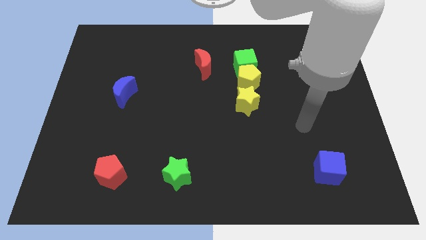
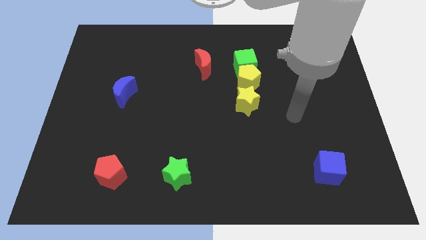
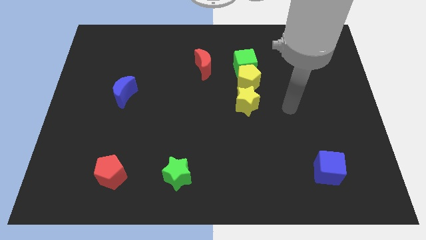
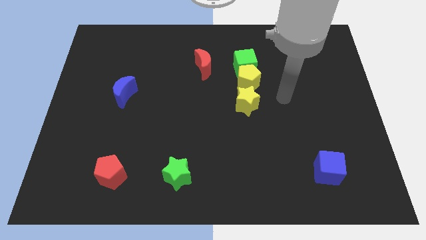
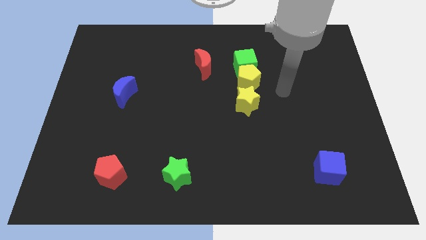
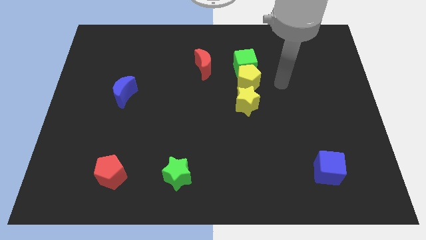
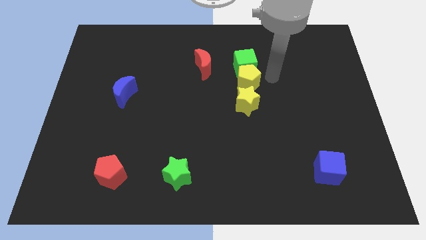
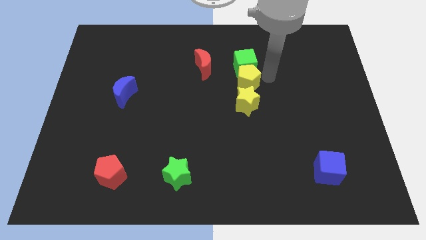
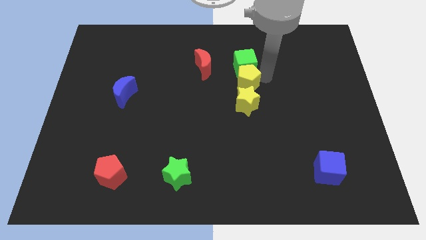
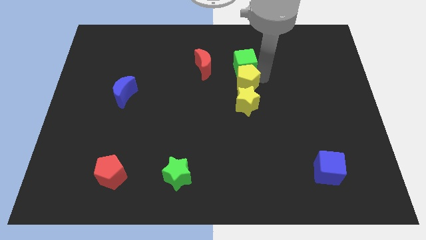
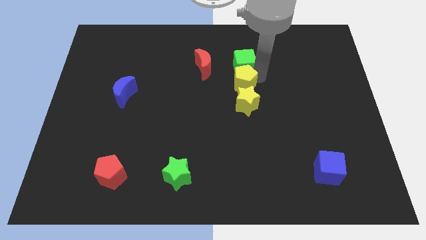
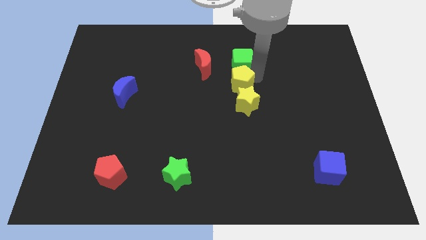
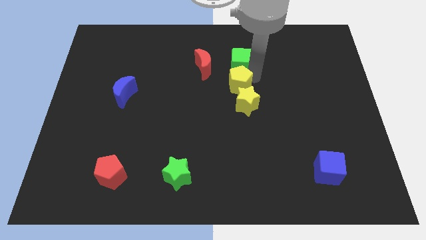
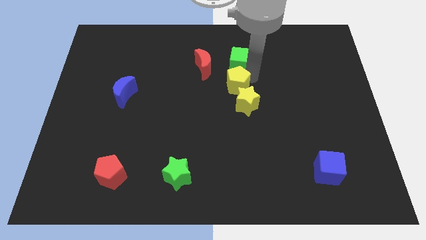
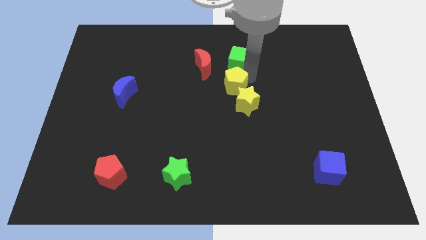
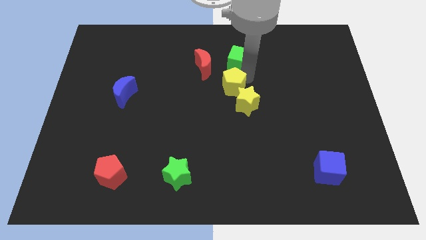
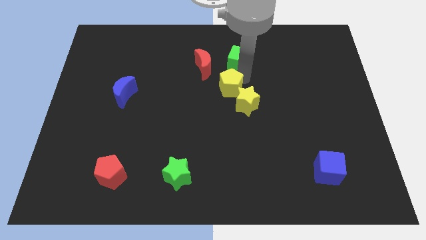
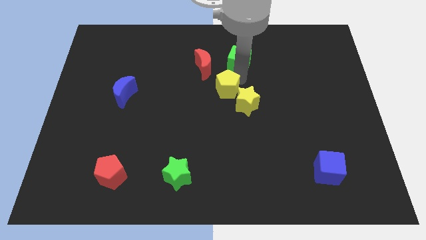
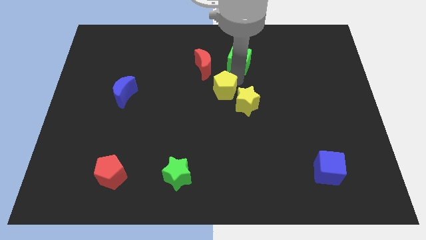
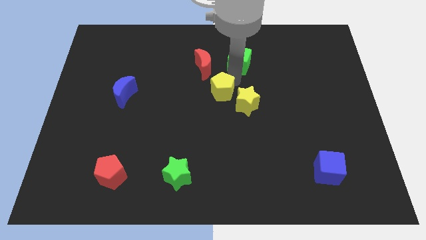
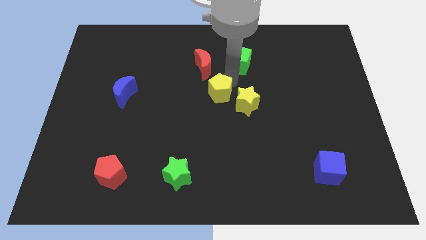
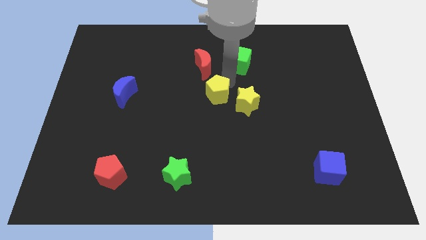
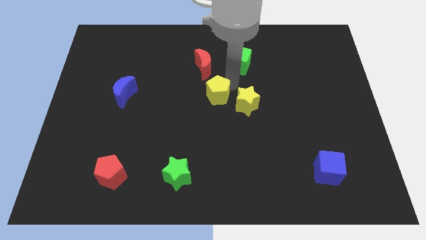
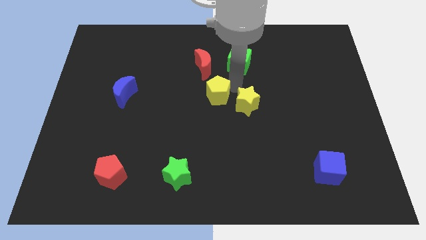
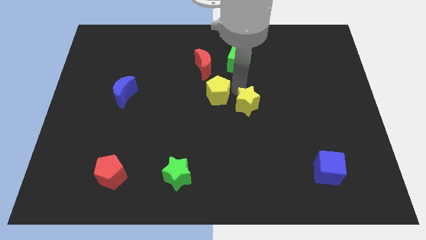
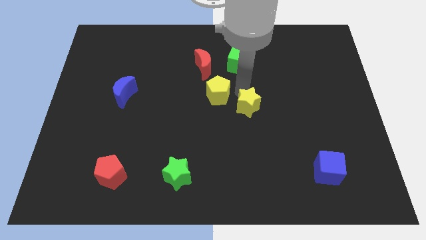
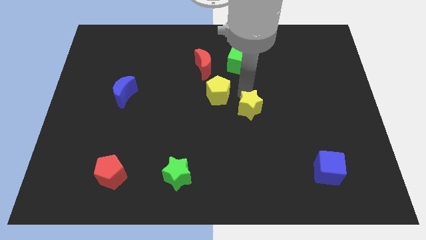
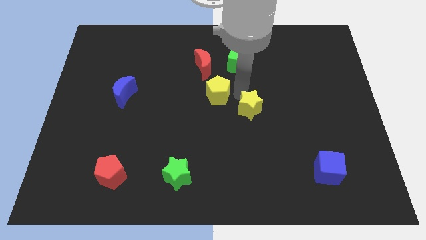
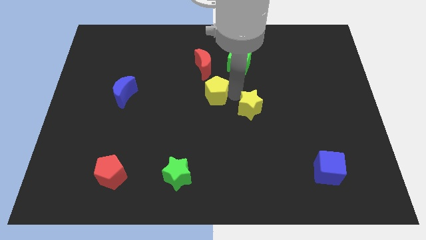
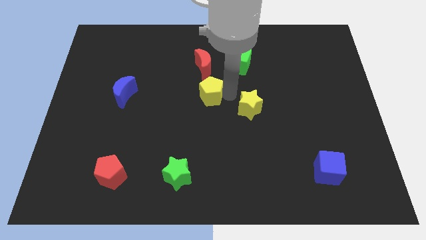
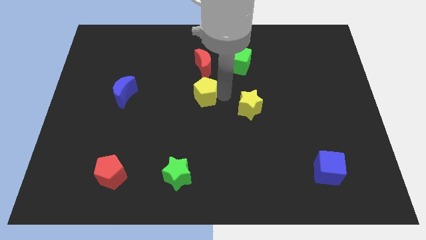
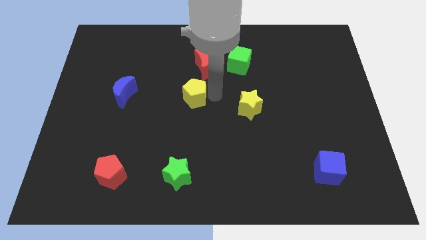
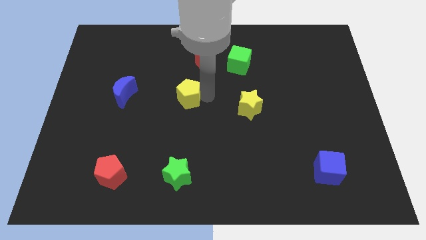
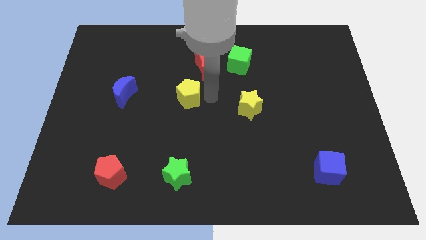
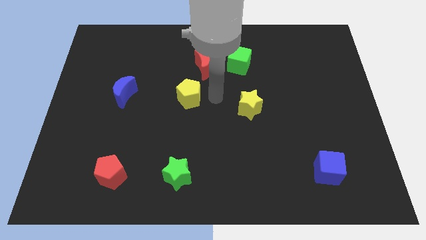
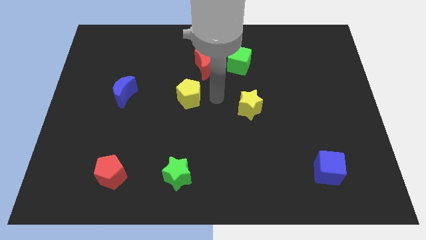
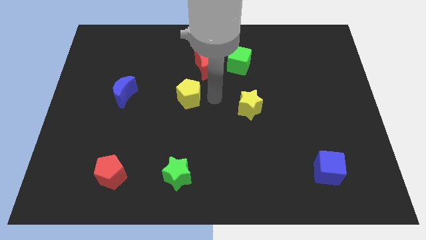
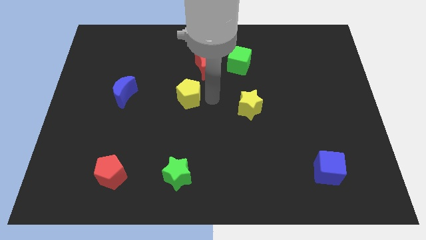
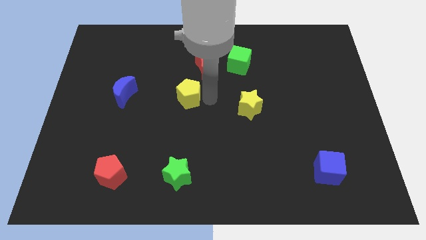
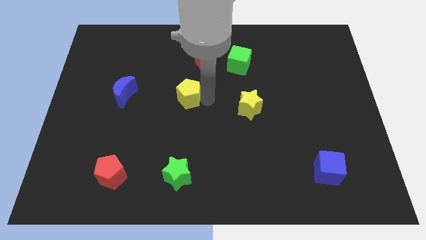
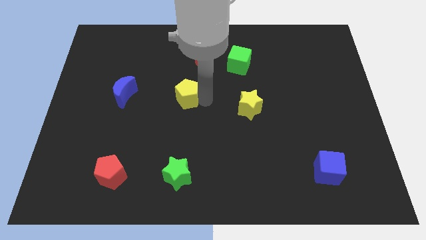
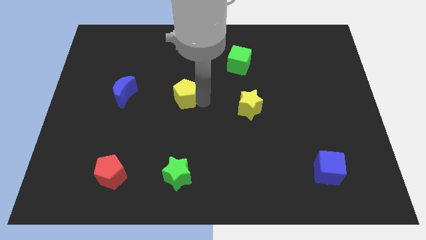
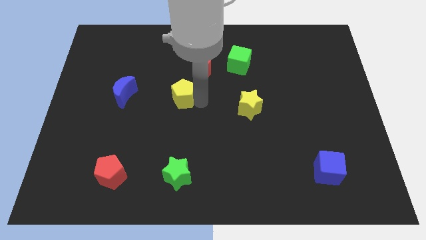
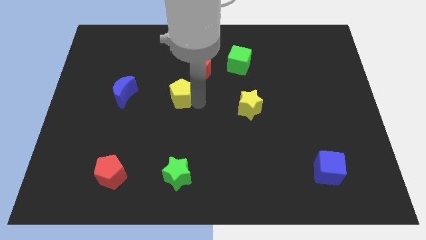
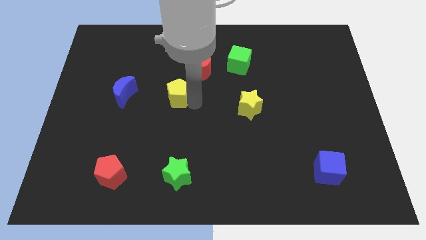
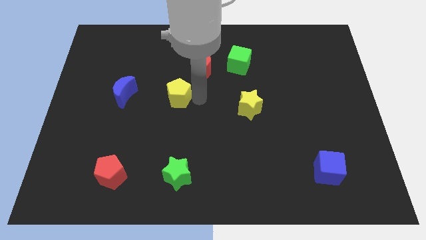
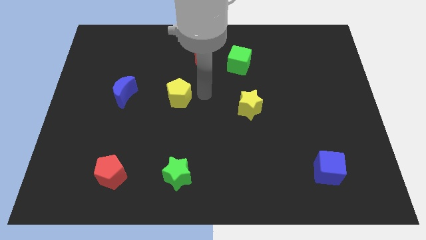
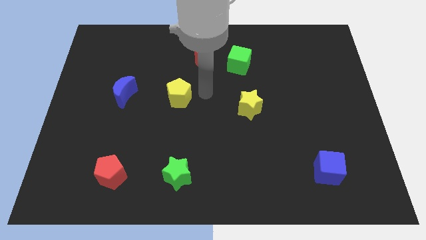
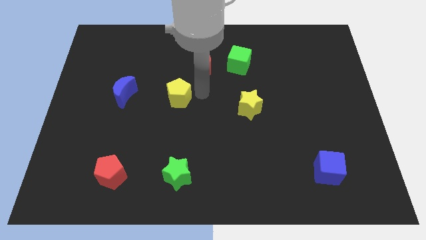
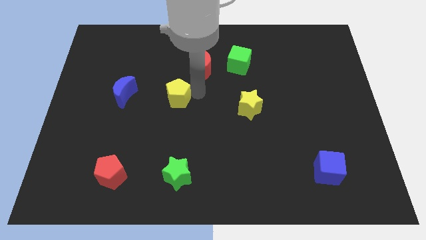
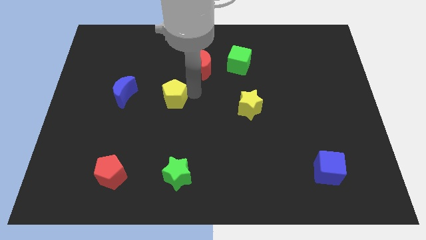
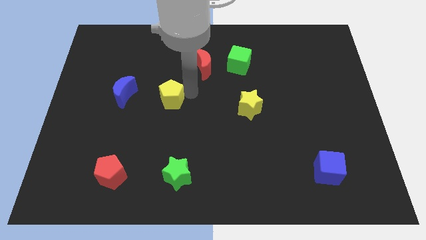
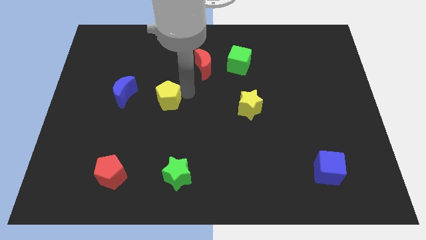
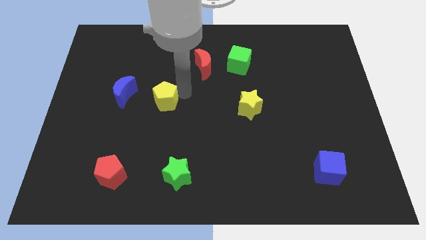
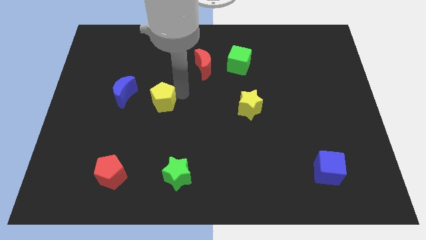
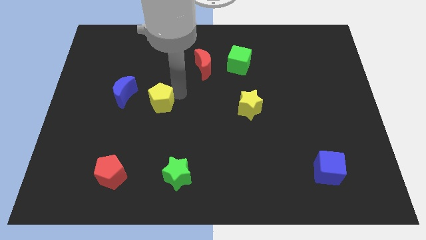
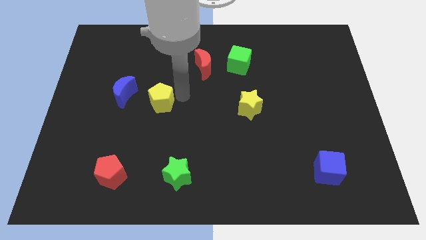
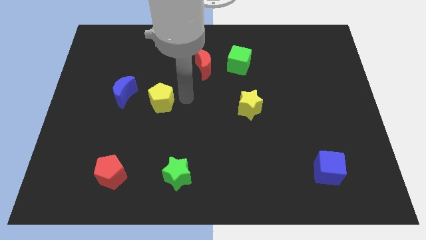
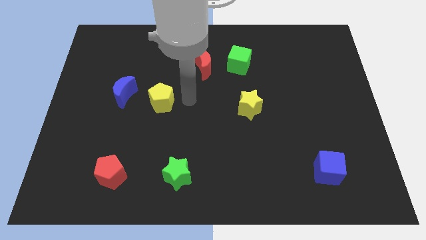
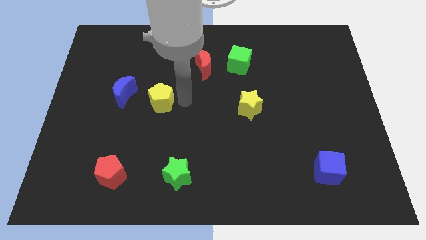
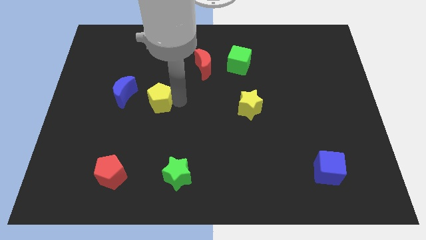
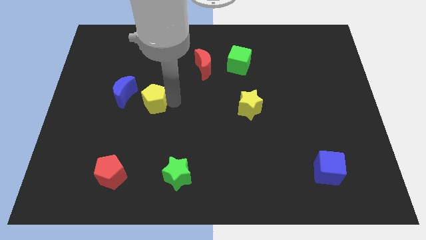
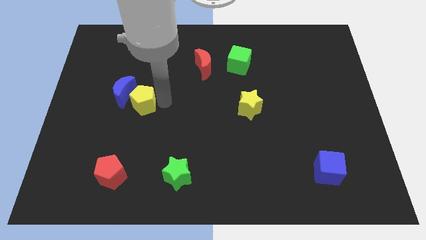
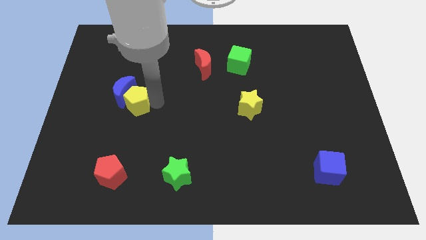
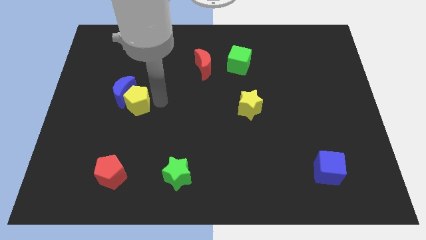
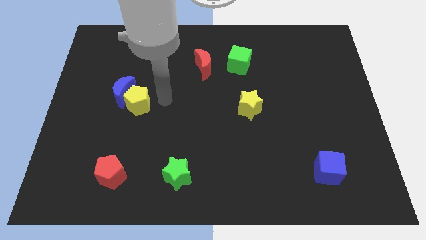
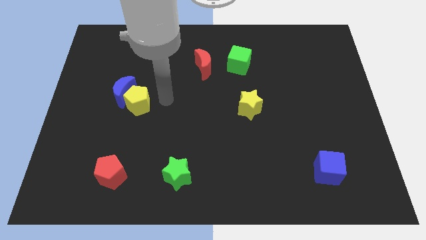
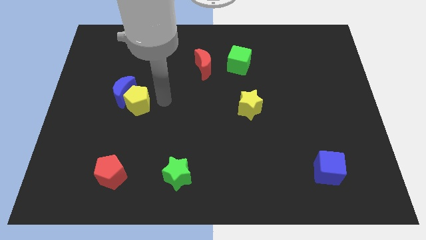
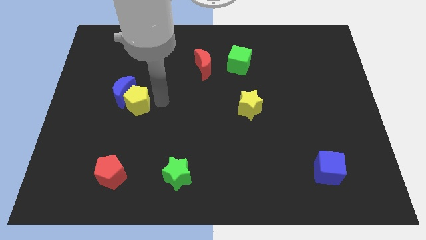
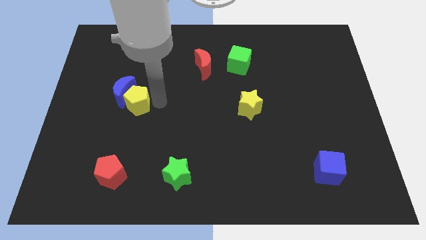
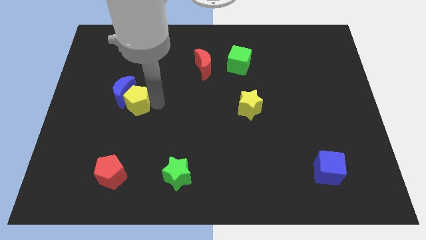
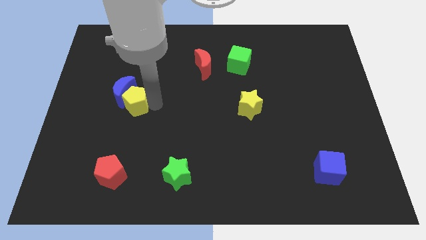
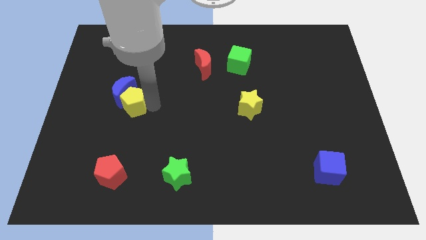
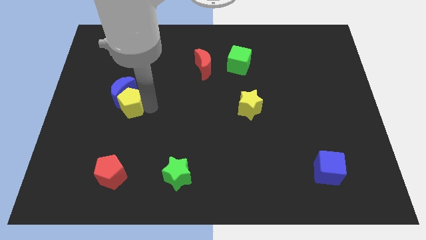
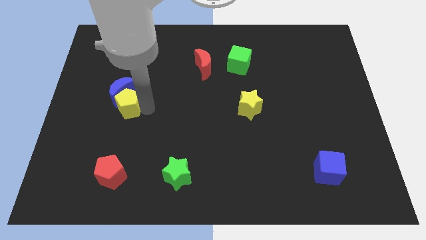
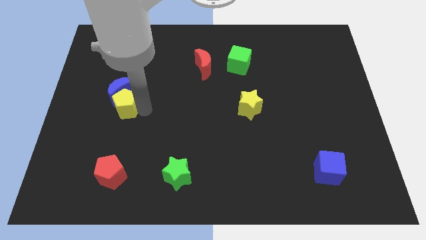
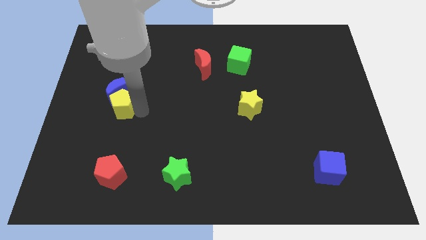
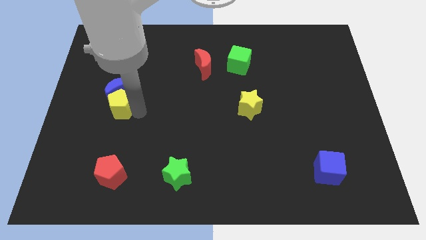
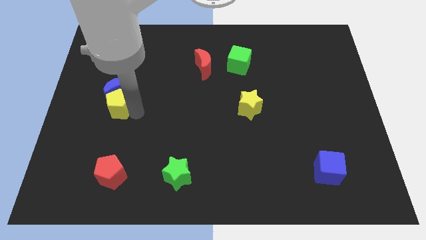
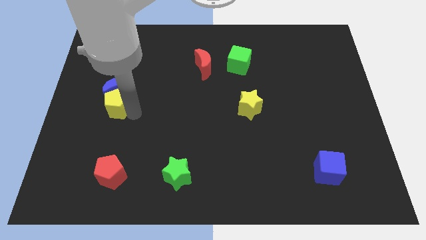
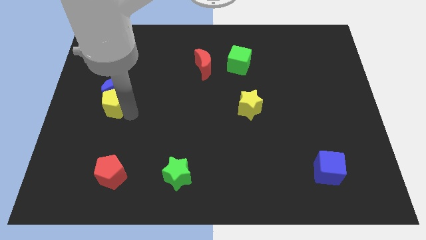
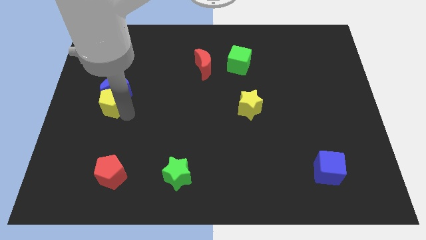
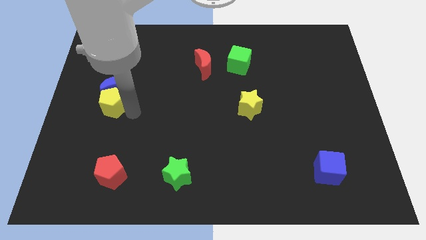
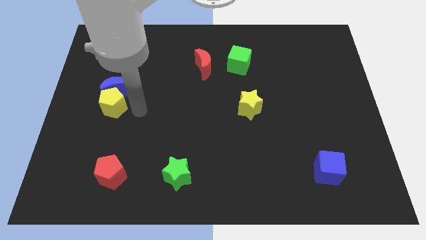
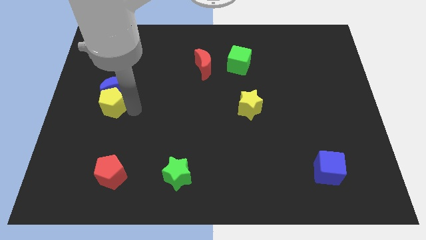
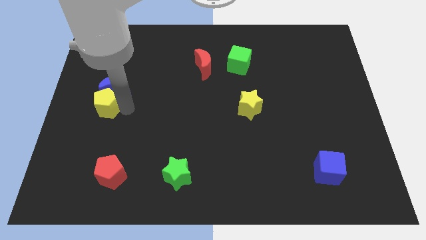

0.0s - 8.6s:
put the yellow pentagon to the center left
